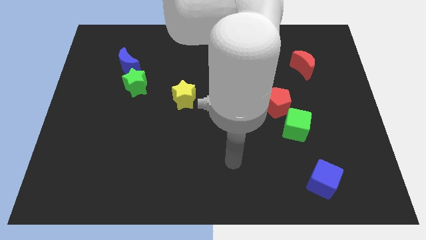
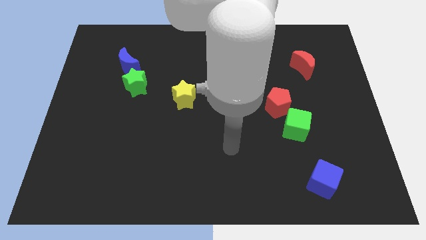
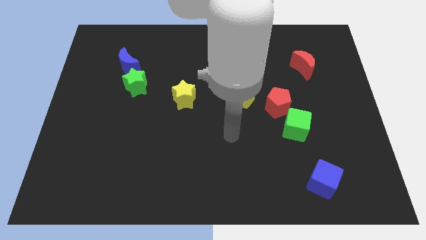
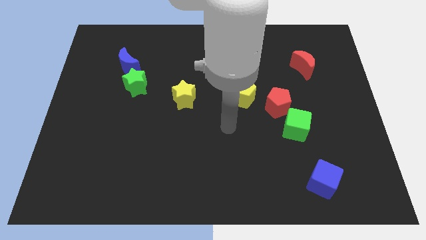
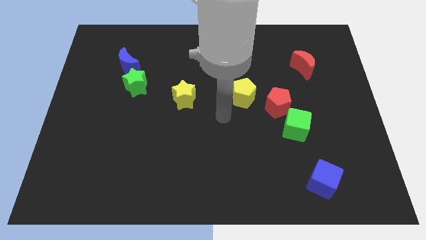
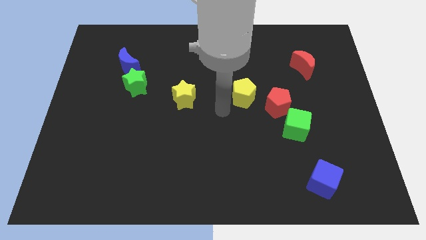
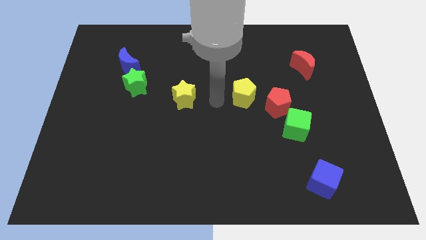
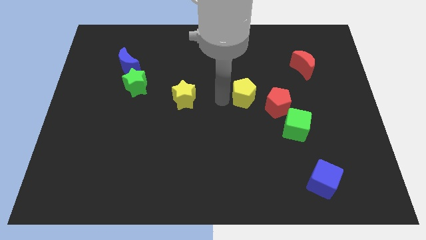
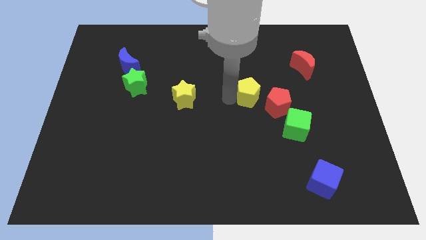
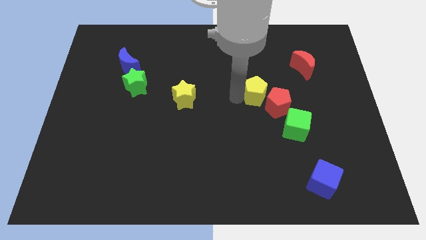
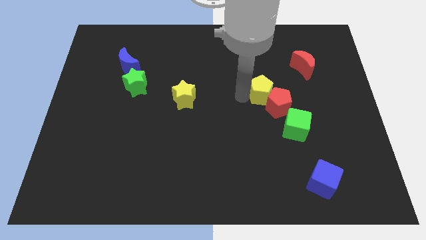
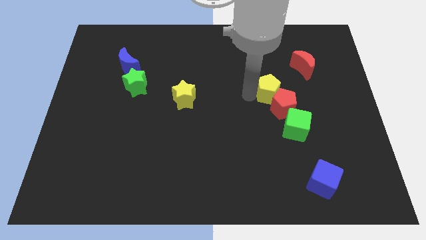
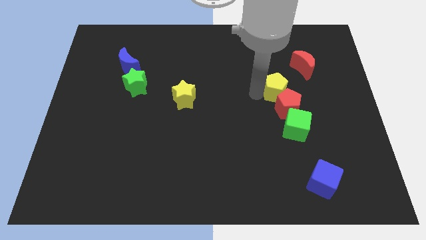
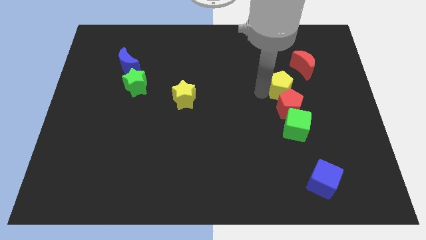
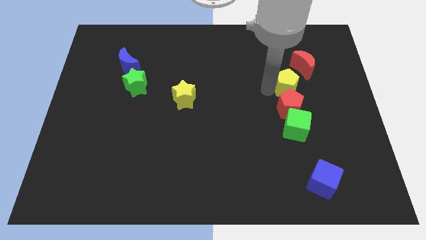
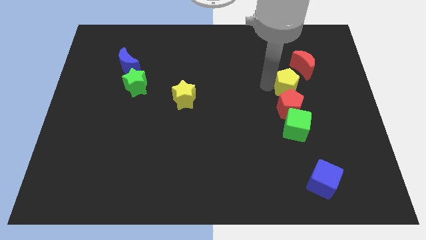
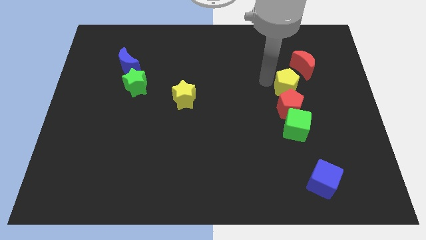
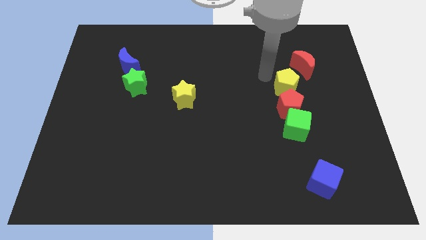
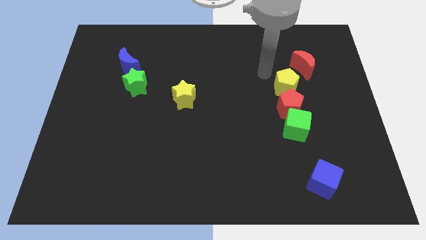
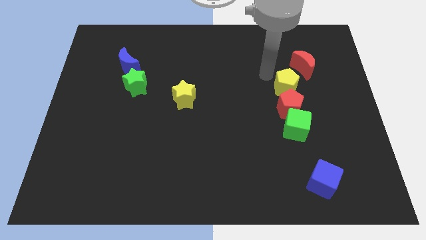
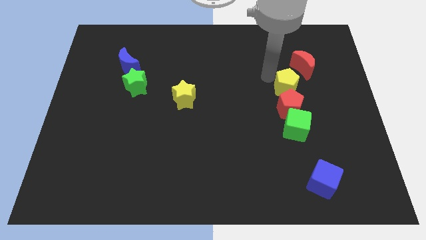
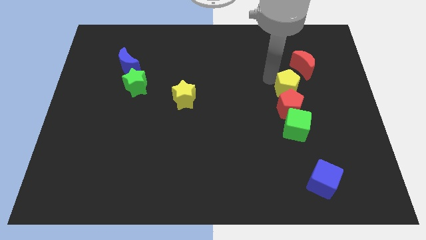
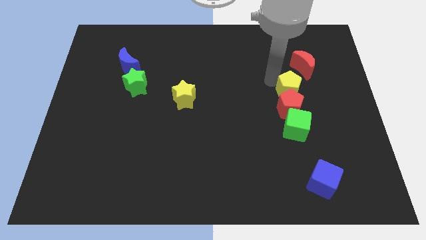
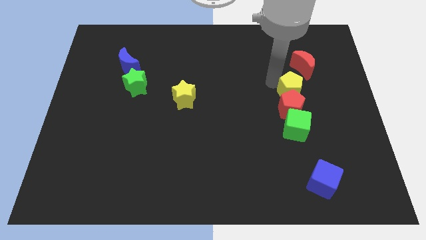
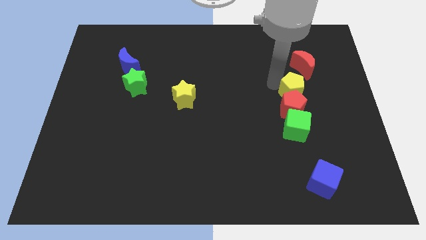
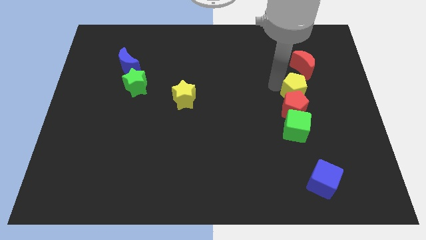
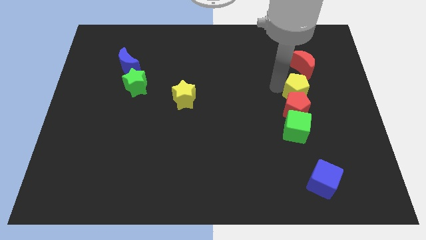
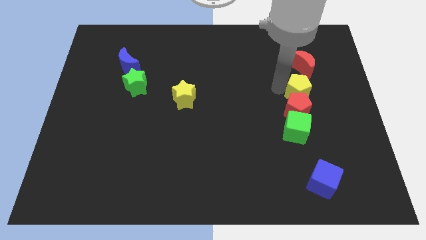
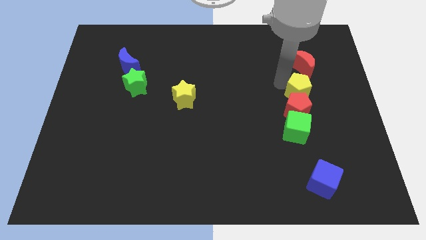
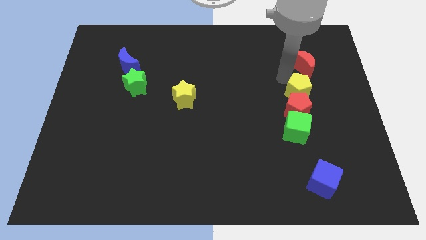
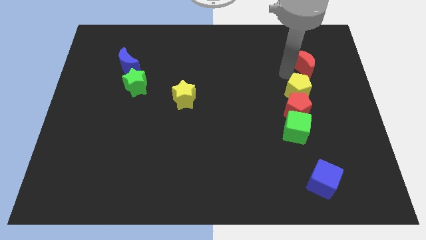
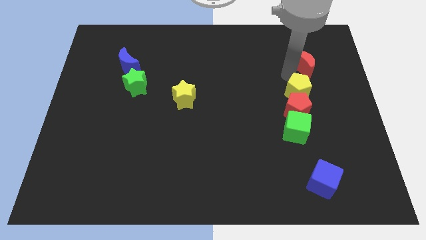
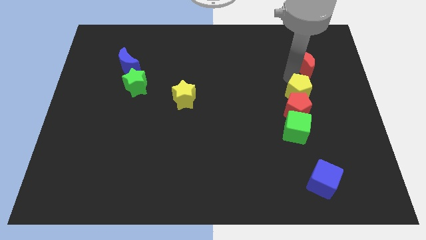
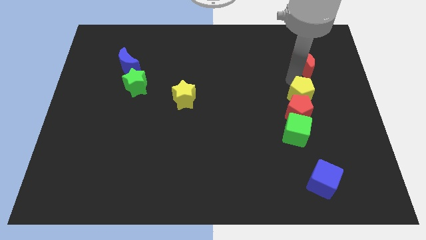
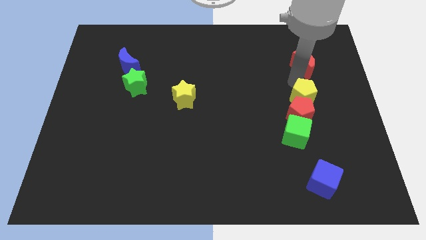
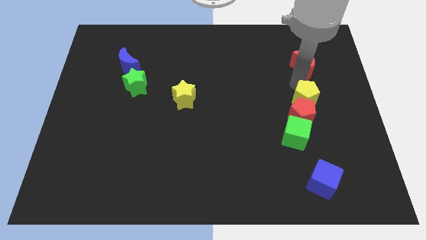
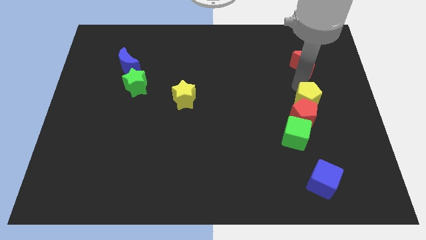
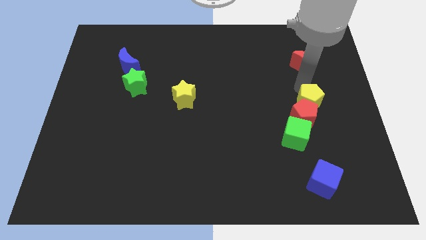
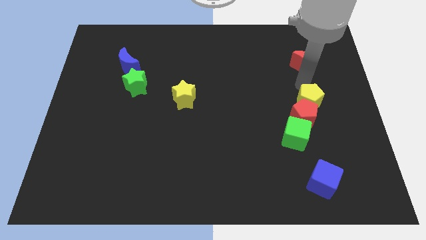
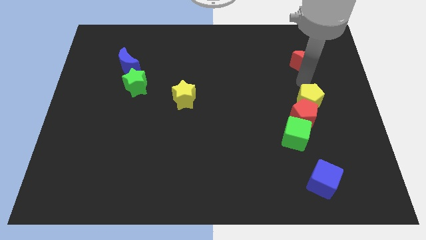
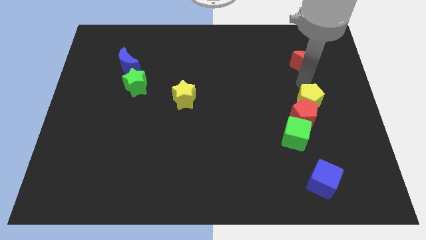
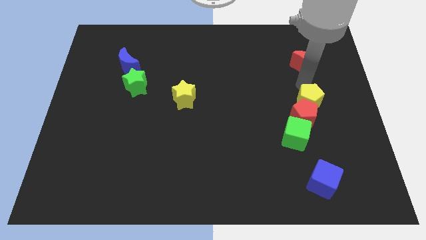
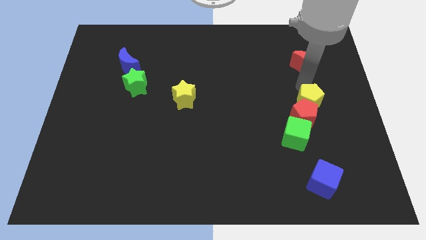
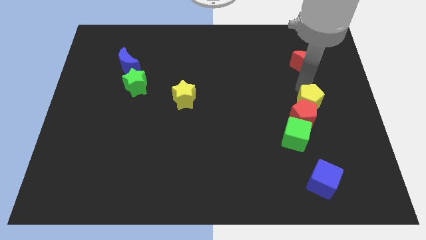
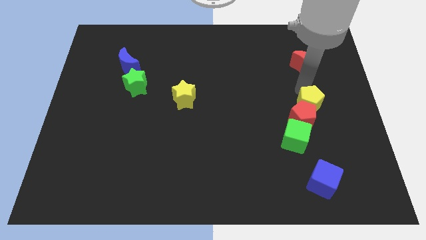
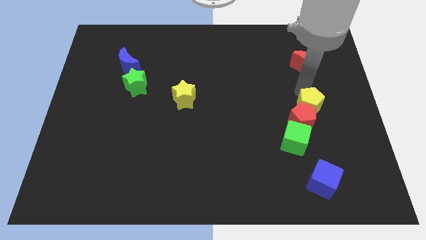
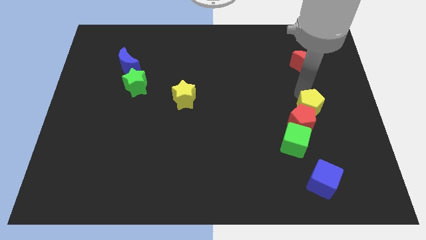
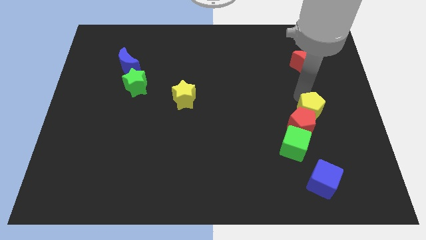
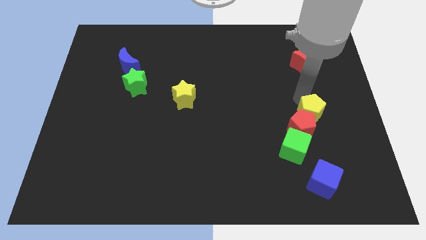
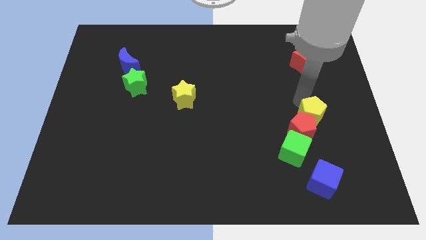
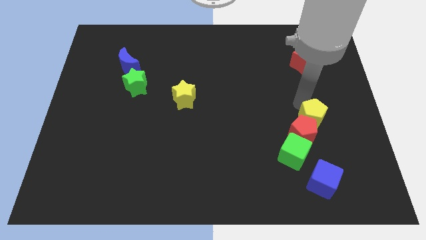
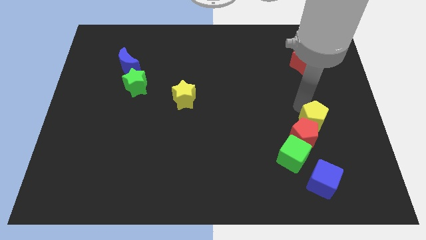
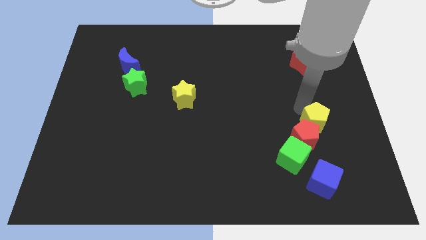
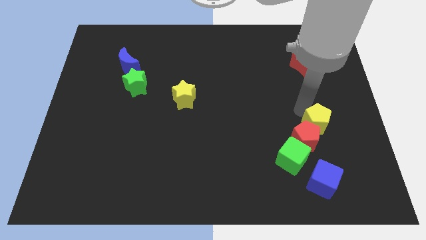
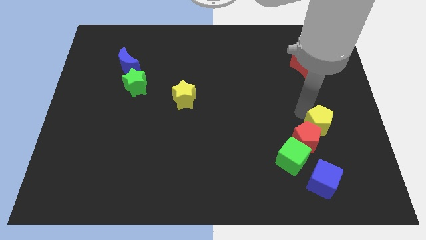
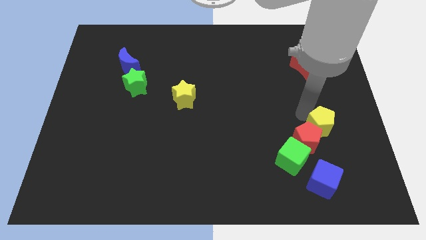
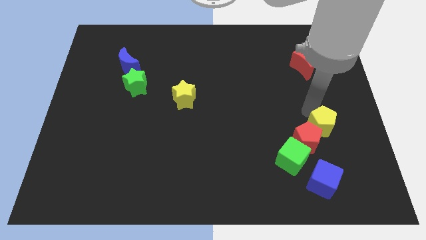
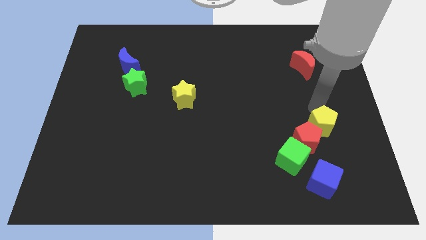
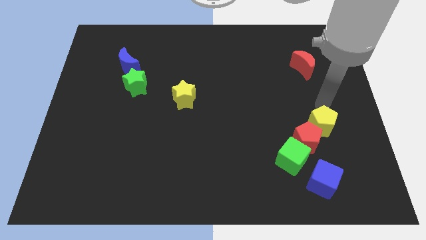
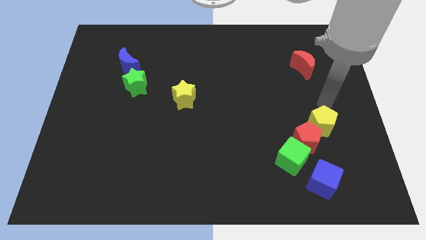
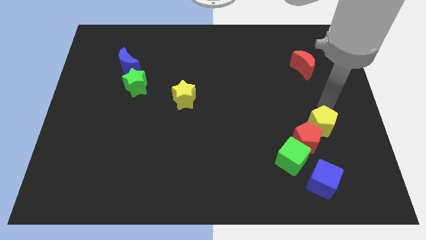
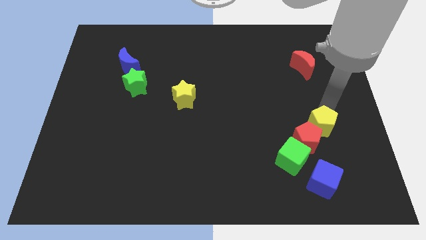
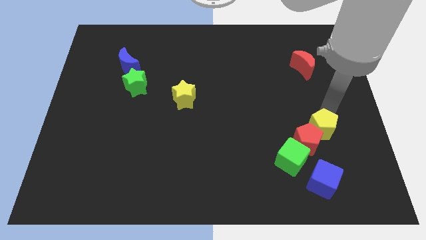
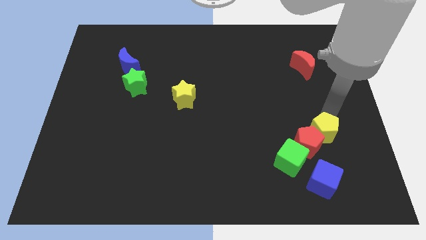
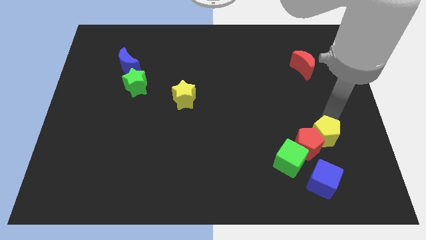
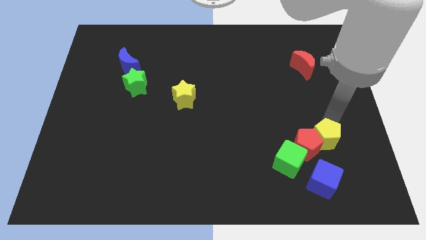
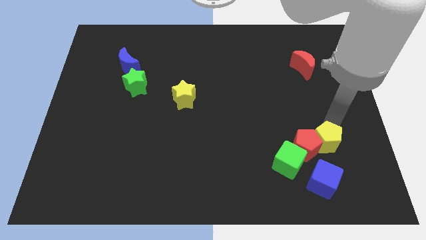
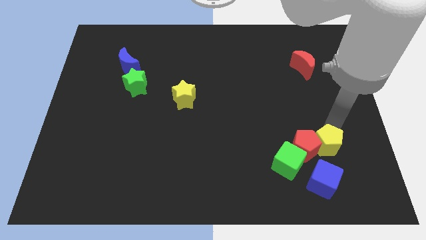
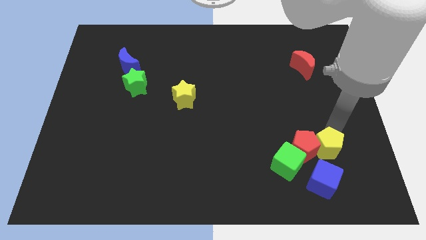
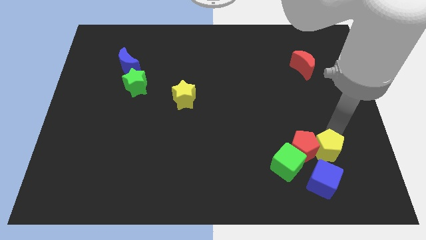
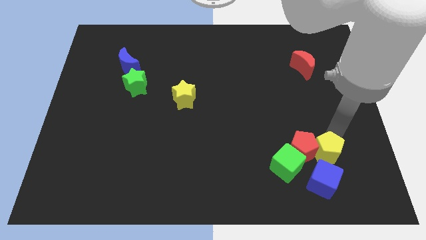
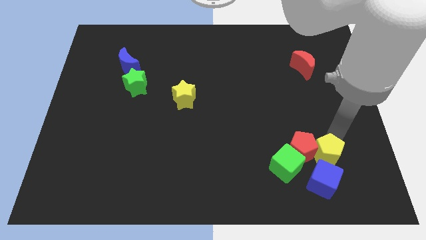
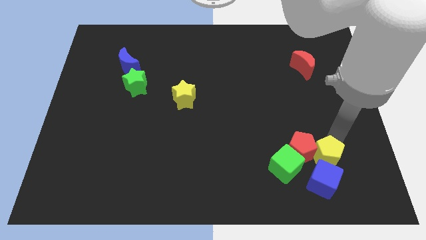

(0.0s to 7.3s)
move the yellow pentagon next to the blue cube
